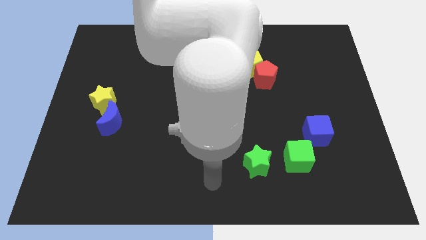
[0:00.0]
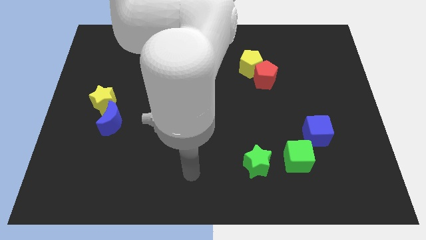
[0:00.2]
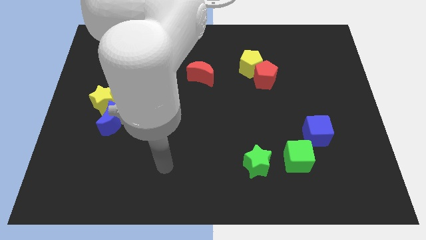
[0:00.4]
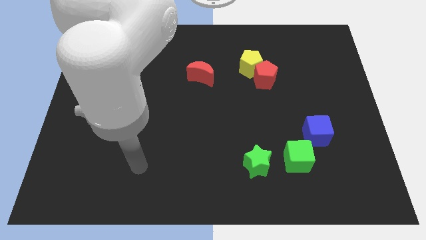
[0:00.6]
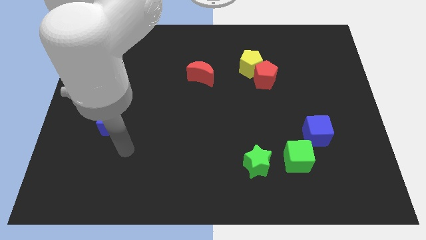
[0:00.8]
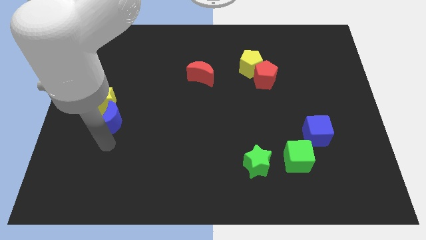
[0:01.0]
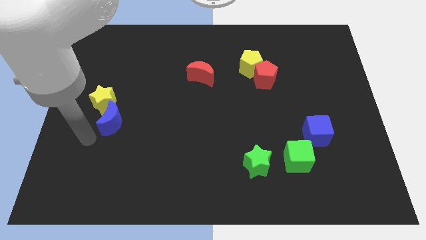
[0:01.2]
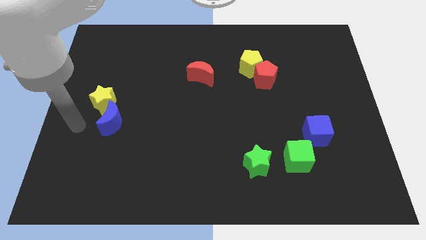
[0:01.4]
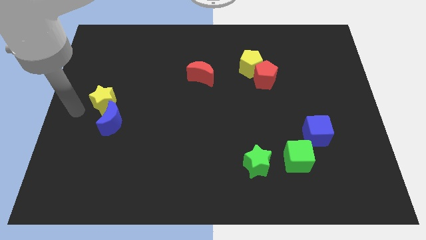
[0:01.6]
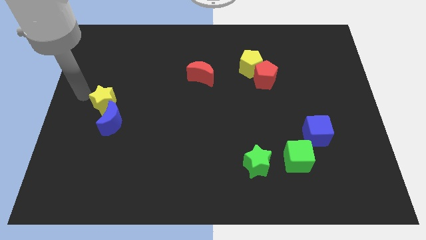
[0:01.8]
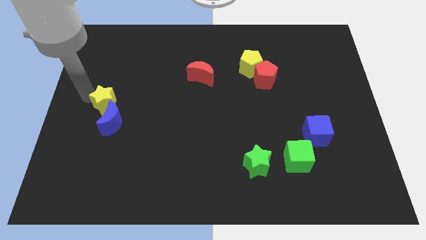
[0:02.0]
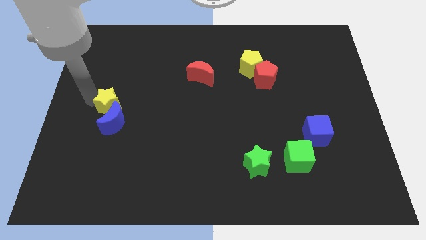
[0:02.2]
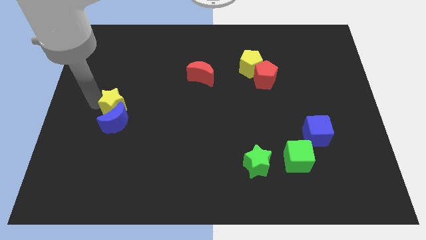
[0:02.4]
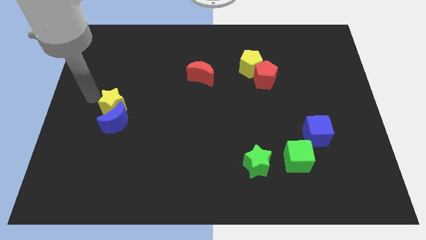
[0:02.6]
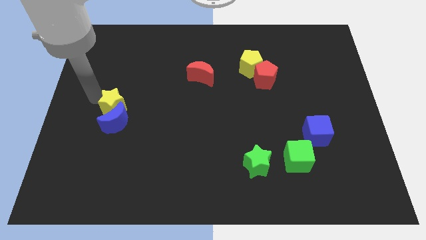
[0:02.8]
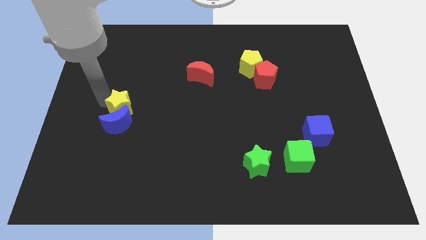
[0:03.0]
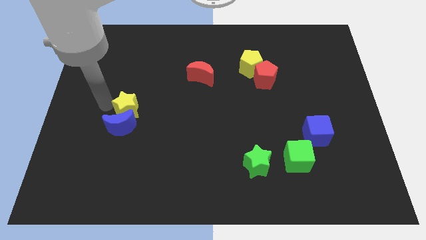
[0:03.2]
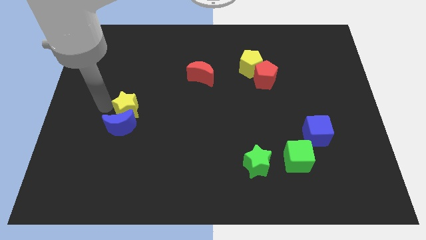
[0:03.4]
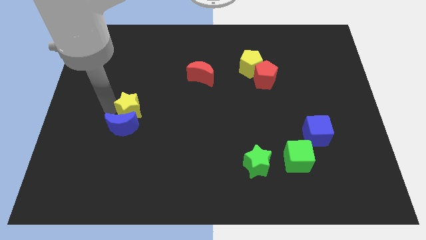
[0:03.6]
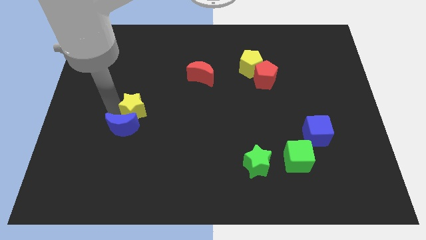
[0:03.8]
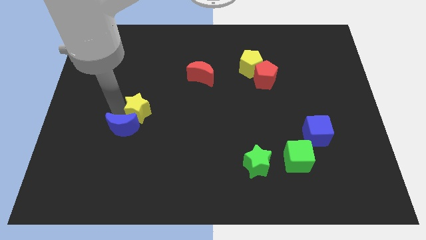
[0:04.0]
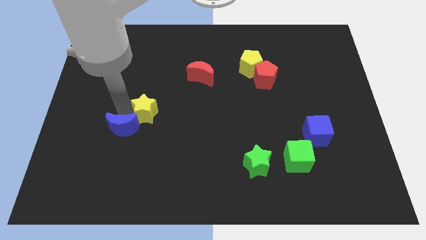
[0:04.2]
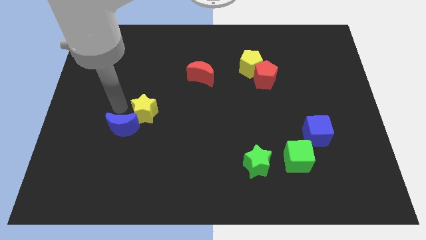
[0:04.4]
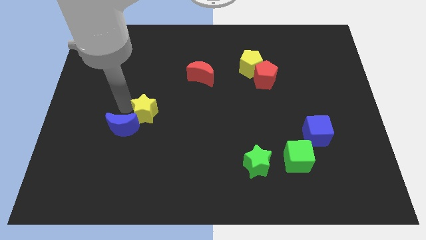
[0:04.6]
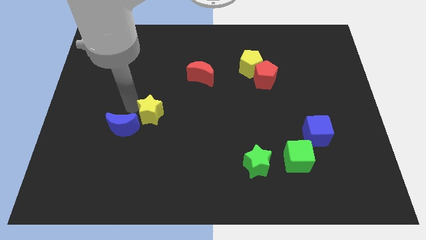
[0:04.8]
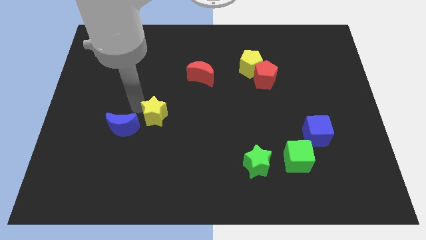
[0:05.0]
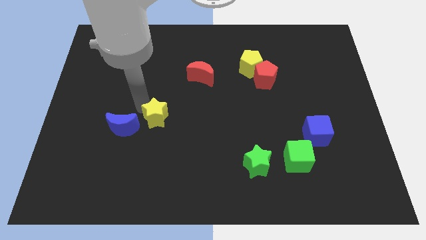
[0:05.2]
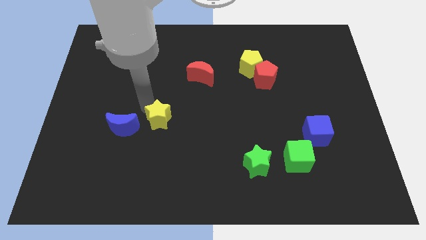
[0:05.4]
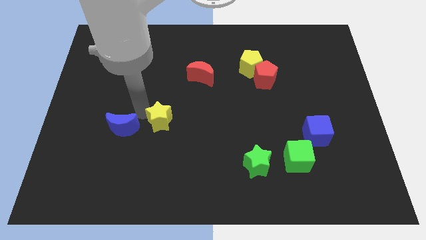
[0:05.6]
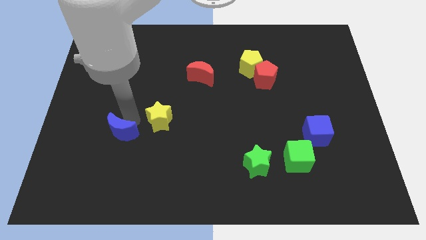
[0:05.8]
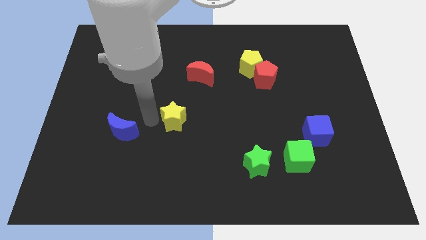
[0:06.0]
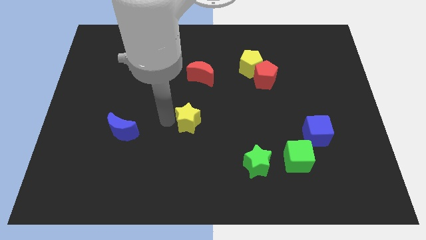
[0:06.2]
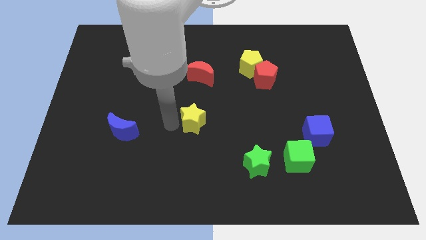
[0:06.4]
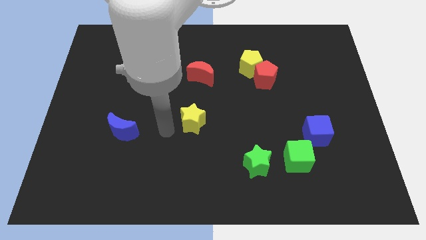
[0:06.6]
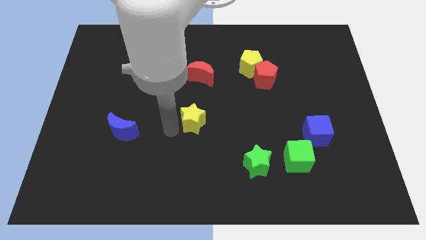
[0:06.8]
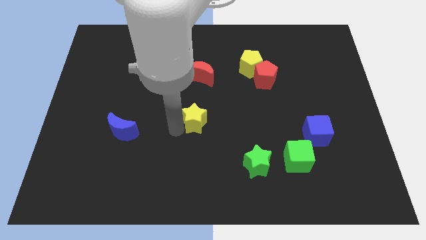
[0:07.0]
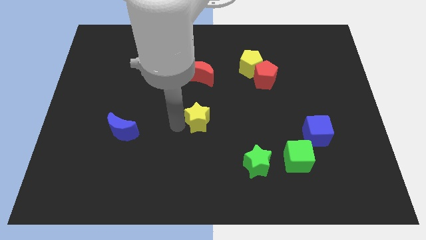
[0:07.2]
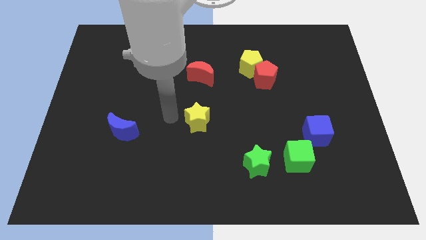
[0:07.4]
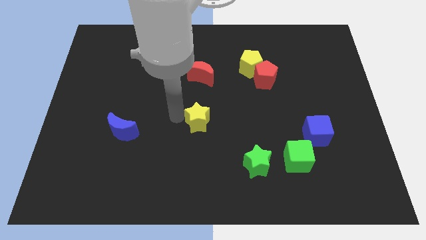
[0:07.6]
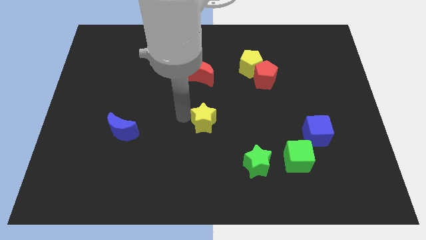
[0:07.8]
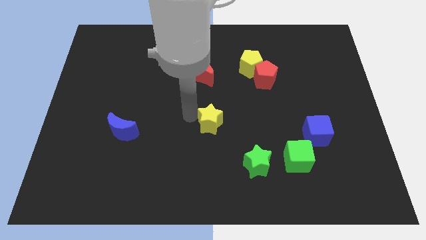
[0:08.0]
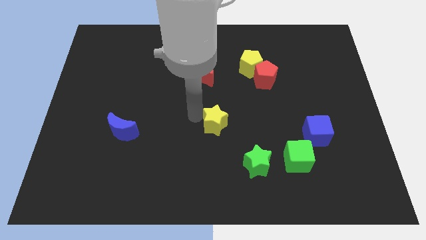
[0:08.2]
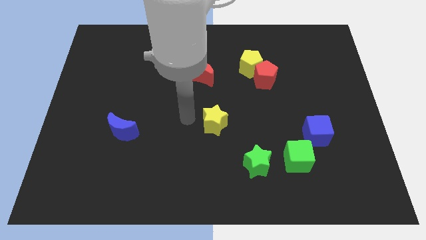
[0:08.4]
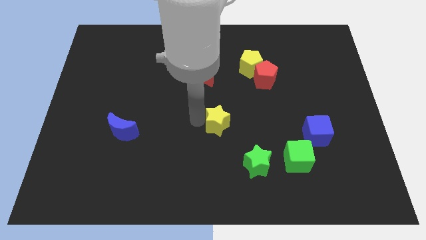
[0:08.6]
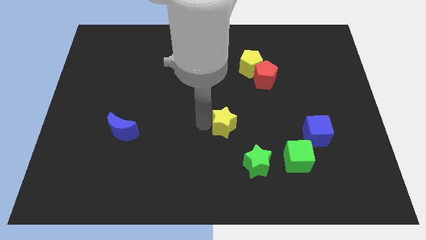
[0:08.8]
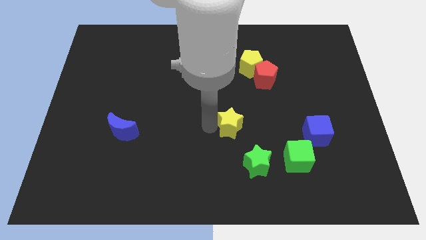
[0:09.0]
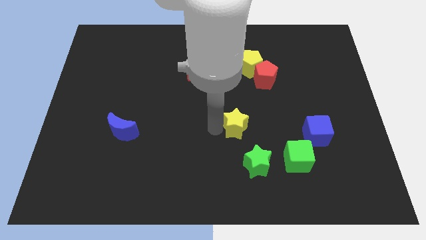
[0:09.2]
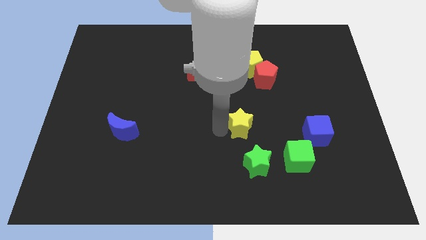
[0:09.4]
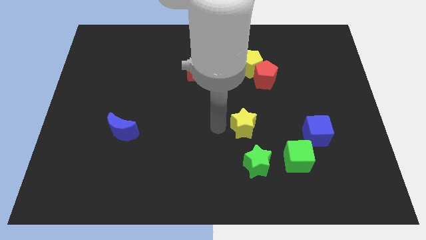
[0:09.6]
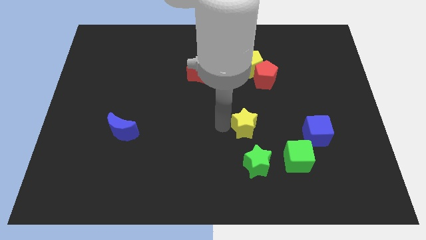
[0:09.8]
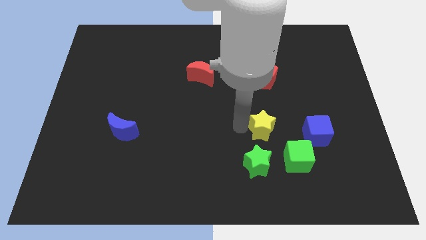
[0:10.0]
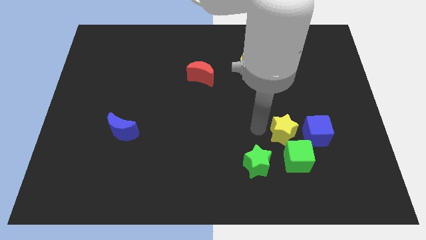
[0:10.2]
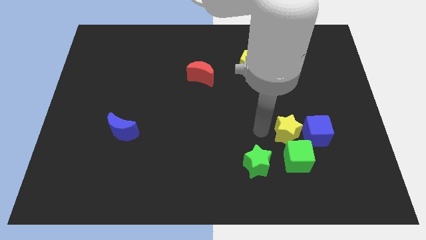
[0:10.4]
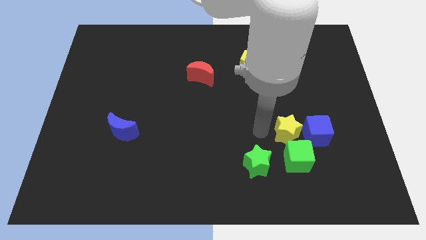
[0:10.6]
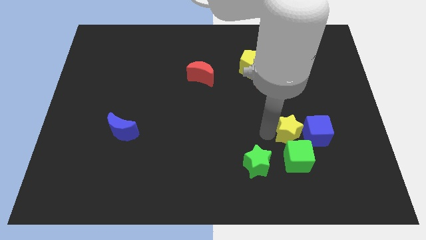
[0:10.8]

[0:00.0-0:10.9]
slide the yellow star to the blue cube

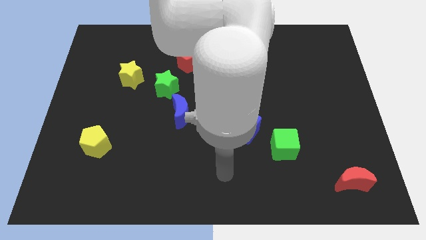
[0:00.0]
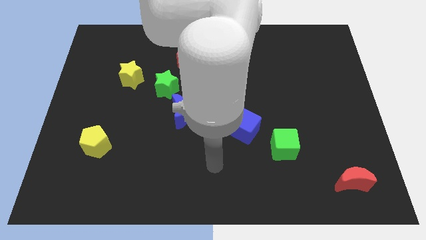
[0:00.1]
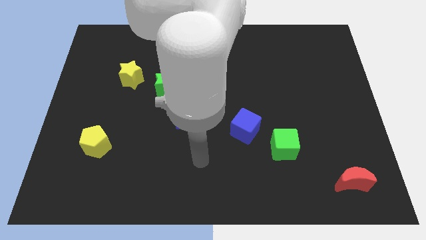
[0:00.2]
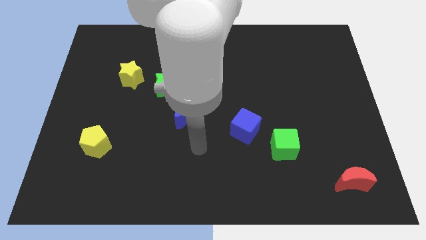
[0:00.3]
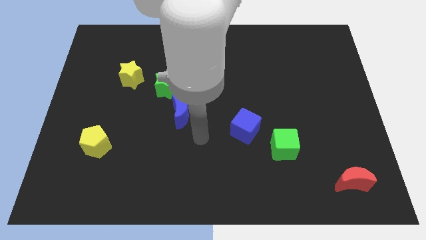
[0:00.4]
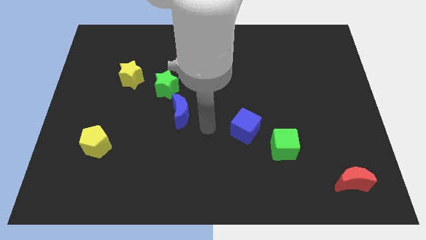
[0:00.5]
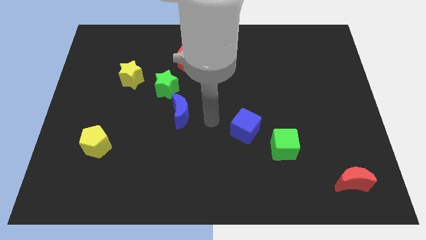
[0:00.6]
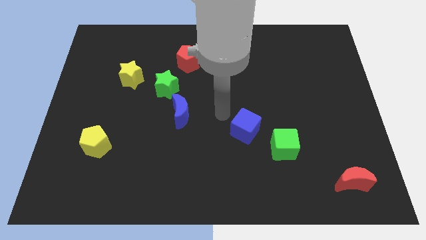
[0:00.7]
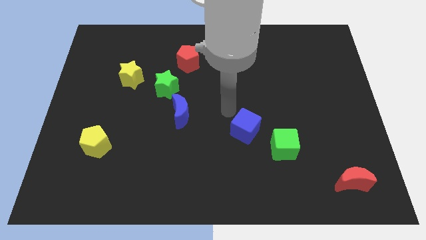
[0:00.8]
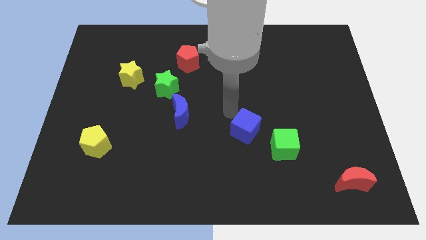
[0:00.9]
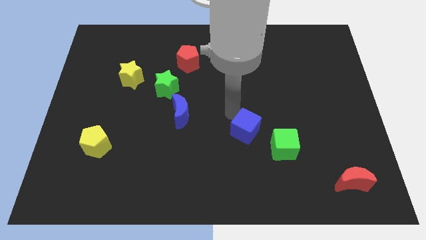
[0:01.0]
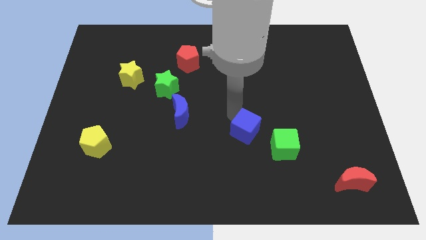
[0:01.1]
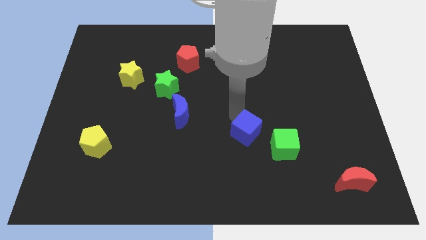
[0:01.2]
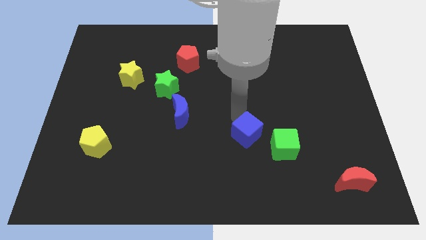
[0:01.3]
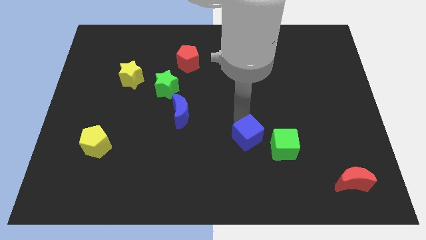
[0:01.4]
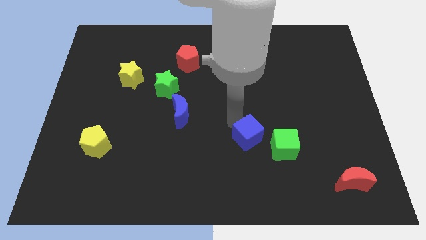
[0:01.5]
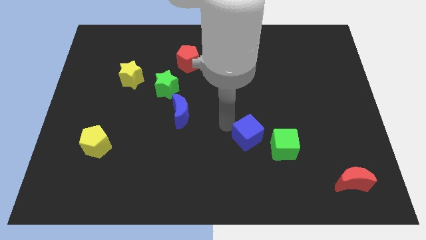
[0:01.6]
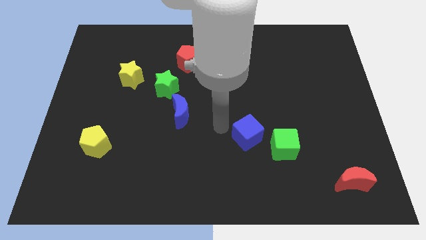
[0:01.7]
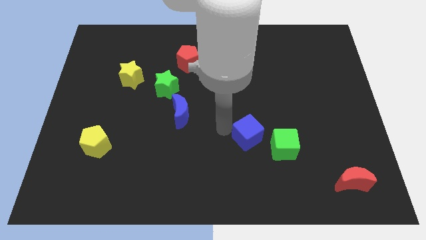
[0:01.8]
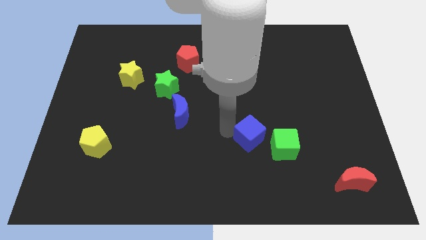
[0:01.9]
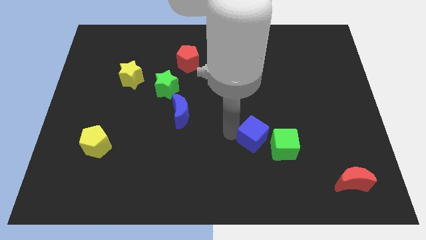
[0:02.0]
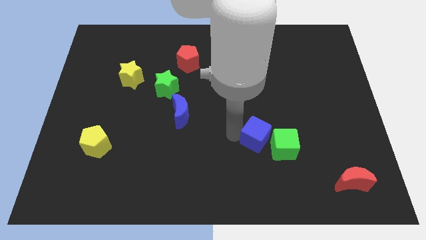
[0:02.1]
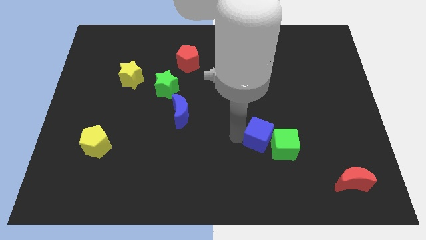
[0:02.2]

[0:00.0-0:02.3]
move the blue cube towards the green cube
